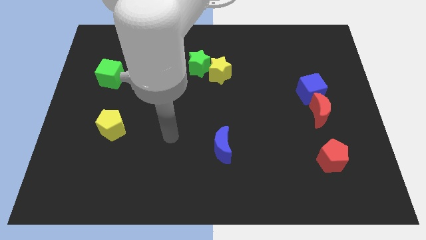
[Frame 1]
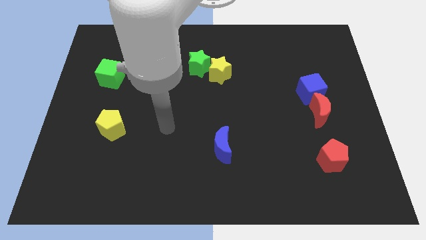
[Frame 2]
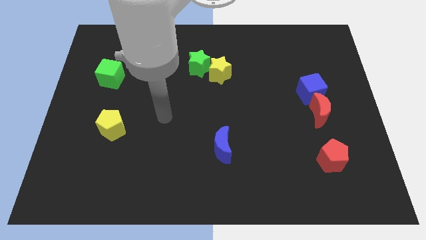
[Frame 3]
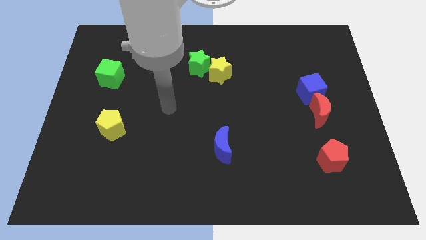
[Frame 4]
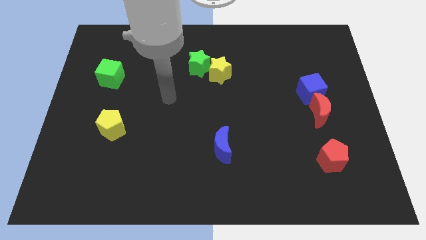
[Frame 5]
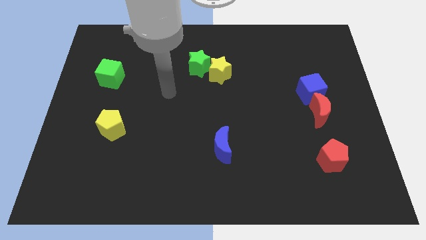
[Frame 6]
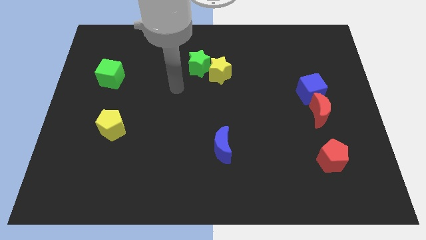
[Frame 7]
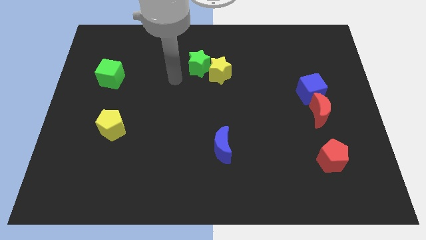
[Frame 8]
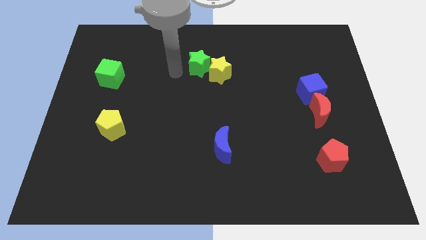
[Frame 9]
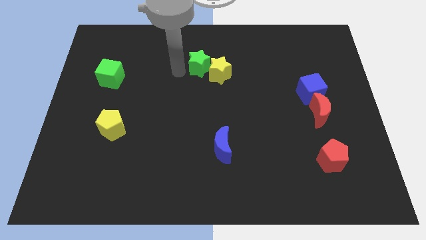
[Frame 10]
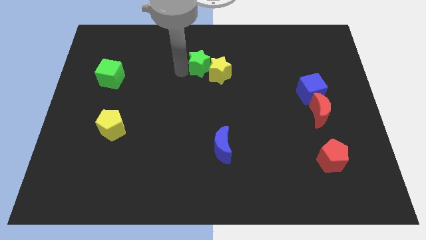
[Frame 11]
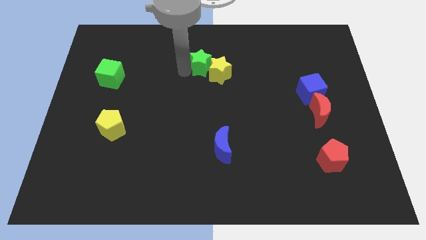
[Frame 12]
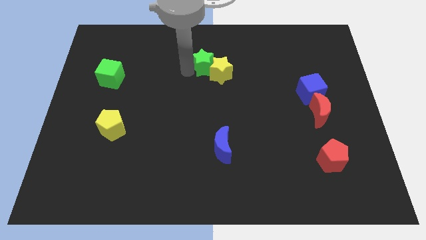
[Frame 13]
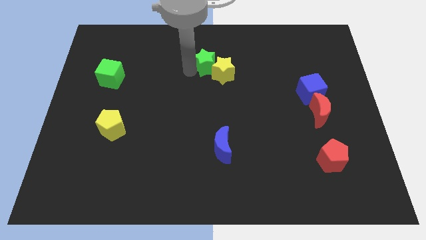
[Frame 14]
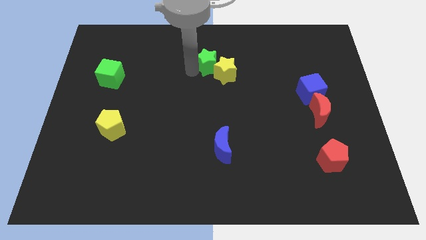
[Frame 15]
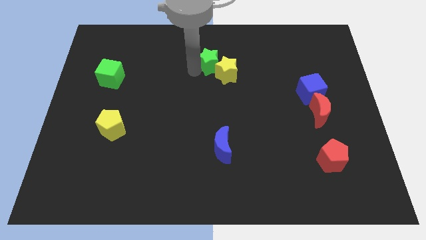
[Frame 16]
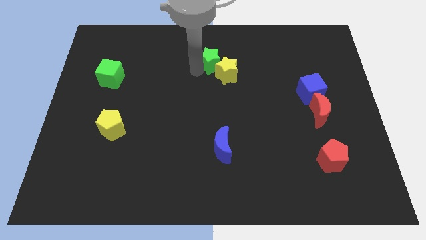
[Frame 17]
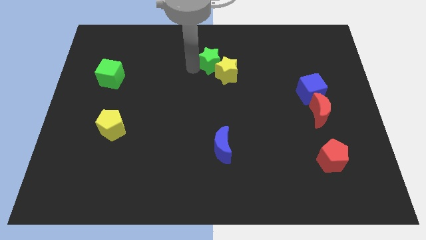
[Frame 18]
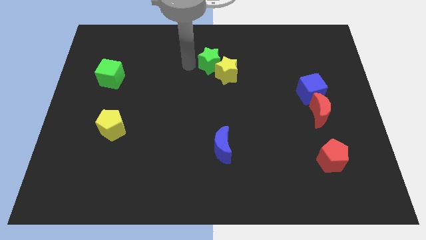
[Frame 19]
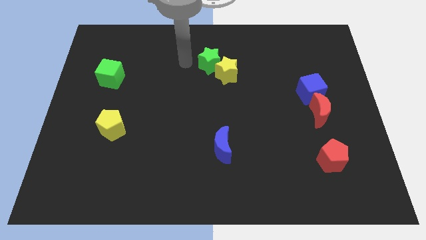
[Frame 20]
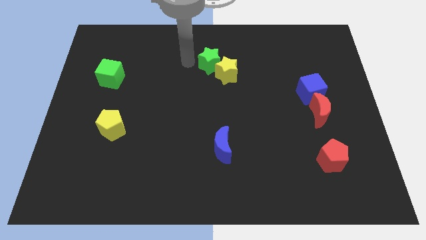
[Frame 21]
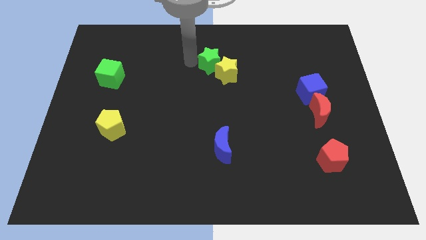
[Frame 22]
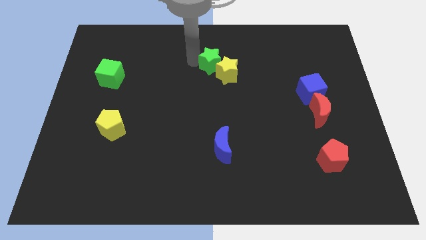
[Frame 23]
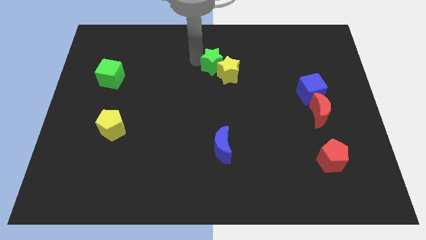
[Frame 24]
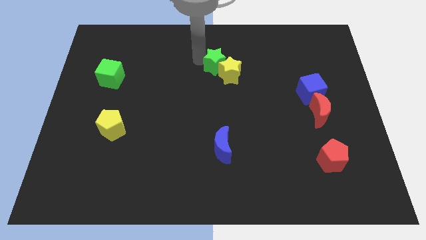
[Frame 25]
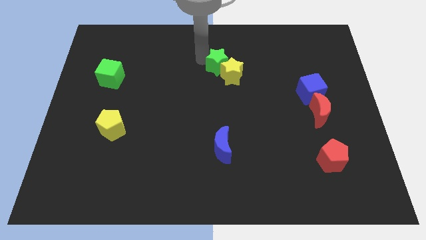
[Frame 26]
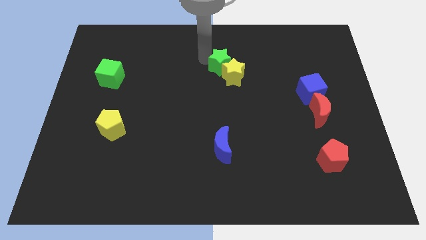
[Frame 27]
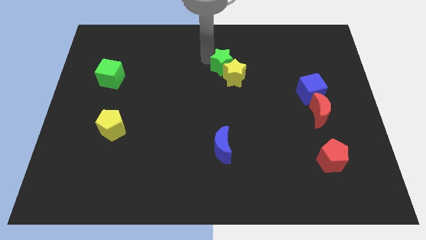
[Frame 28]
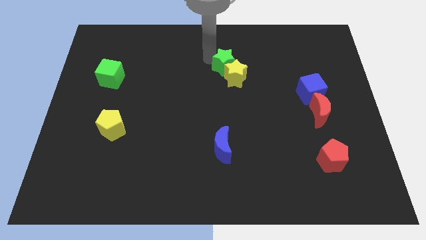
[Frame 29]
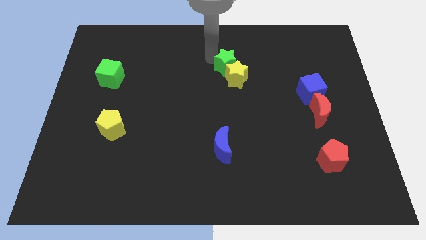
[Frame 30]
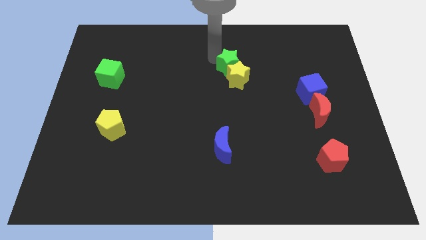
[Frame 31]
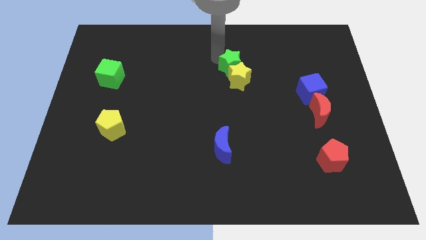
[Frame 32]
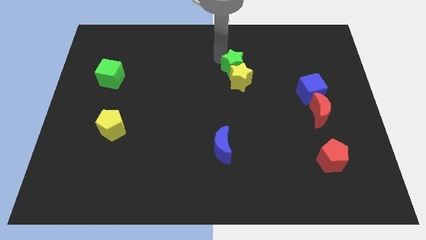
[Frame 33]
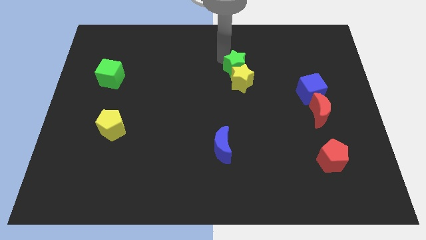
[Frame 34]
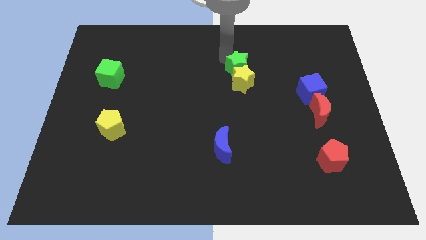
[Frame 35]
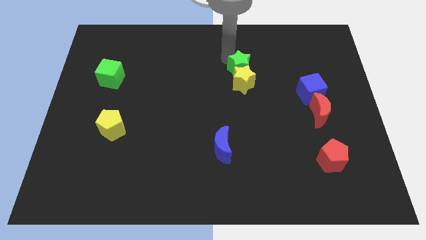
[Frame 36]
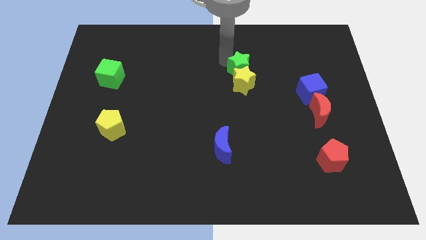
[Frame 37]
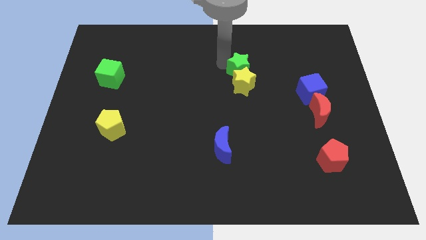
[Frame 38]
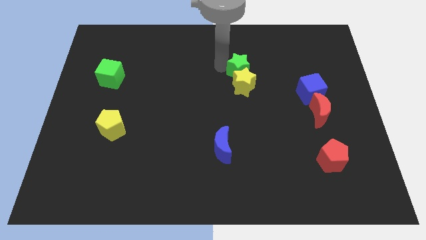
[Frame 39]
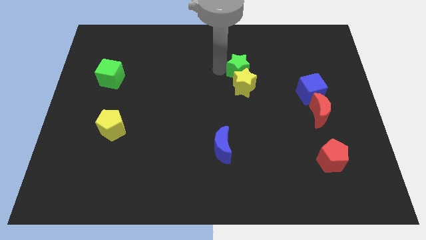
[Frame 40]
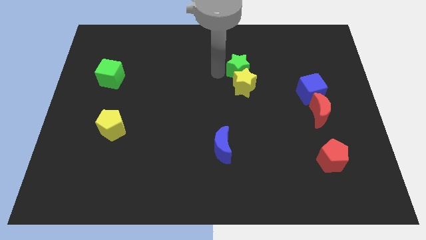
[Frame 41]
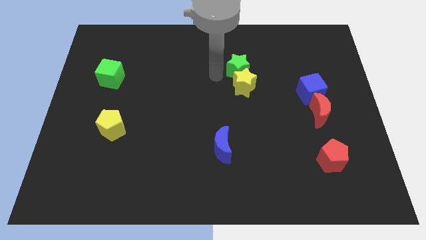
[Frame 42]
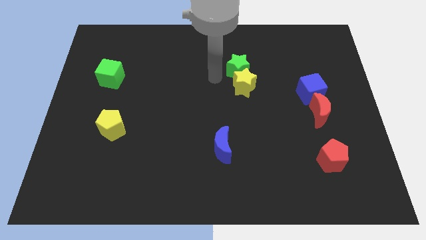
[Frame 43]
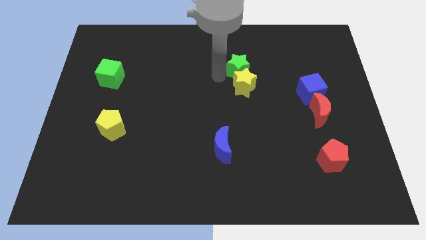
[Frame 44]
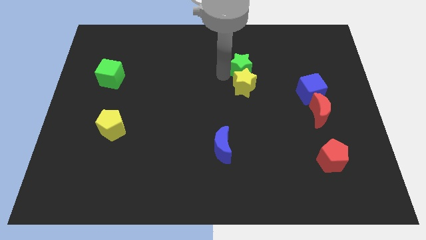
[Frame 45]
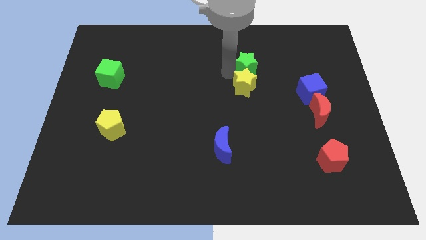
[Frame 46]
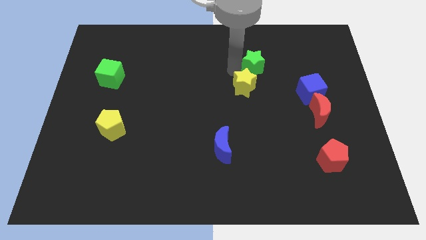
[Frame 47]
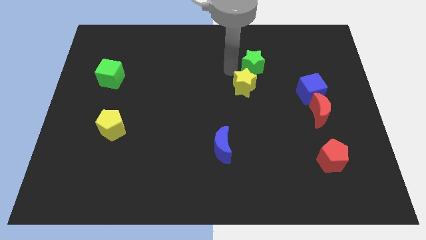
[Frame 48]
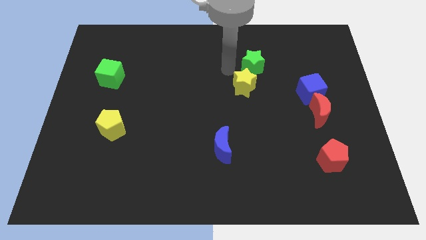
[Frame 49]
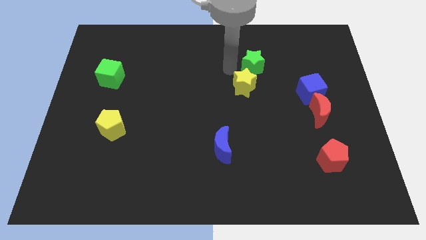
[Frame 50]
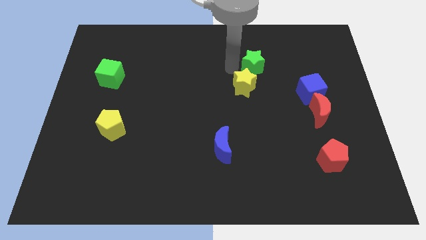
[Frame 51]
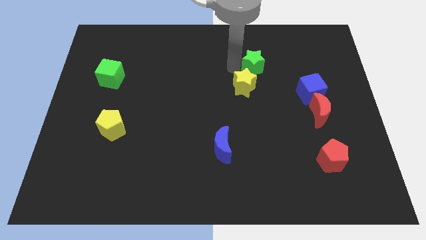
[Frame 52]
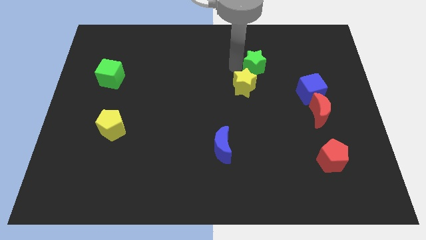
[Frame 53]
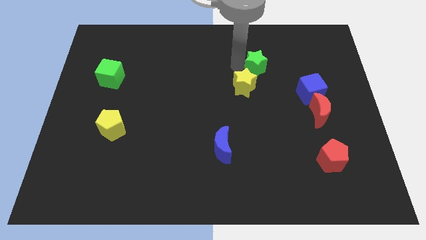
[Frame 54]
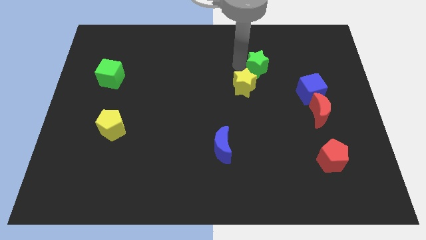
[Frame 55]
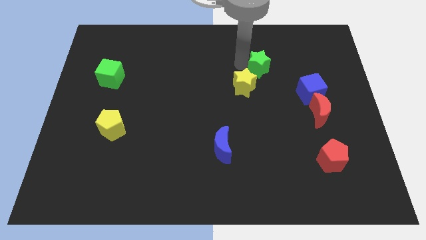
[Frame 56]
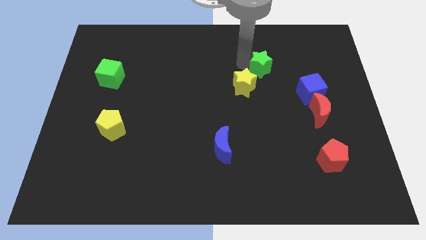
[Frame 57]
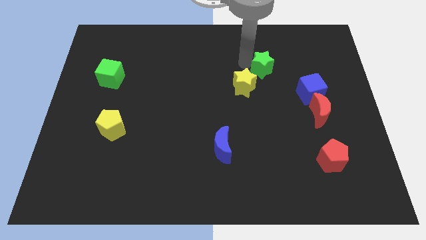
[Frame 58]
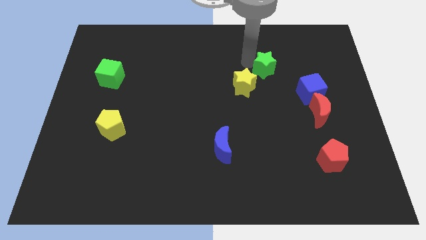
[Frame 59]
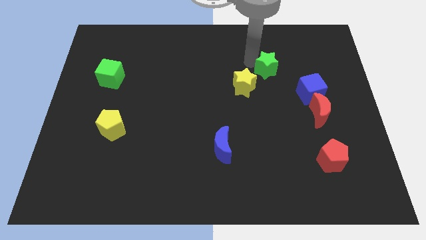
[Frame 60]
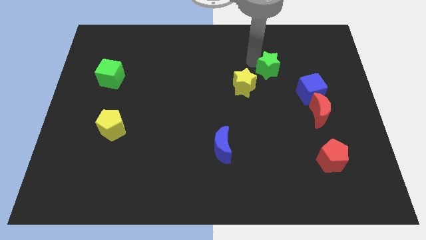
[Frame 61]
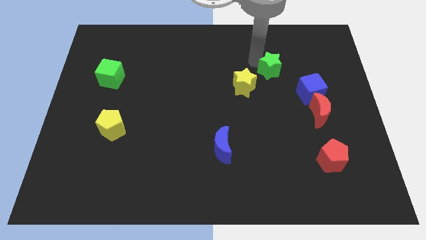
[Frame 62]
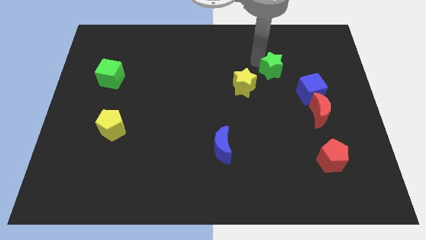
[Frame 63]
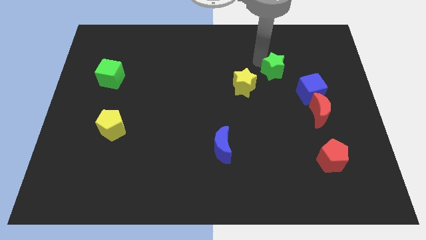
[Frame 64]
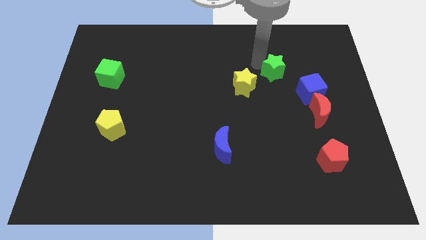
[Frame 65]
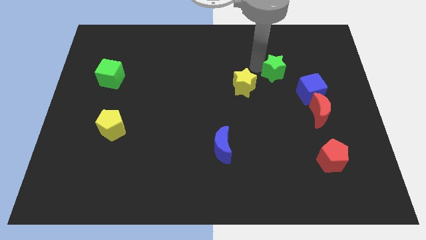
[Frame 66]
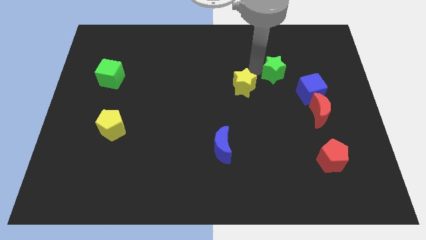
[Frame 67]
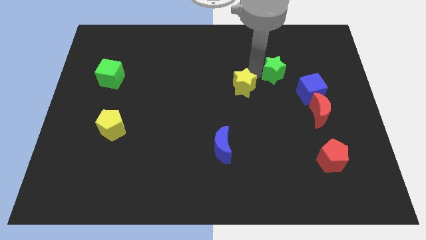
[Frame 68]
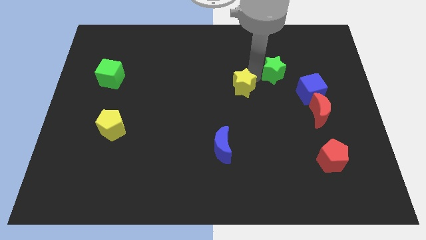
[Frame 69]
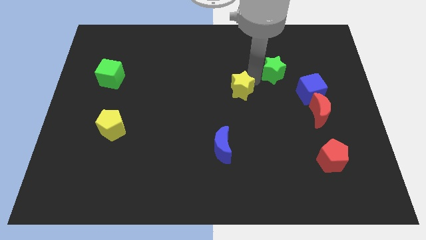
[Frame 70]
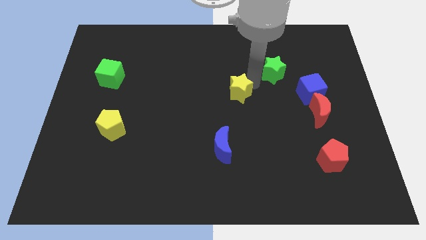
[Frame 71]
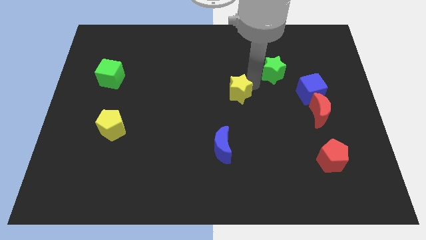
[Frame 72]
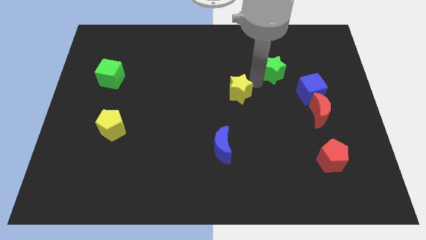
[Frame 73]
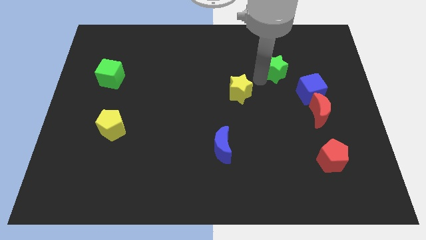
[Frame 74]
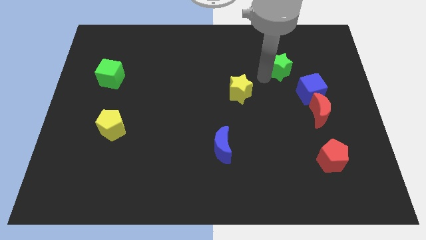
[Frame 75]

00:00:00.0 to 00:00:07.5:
push the green star to the right
